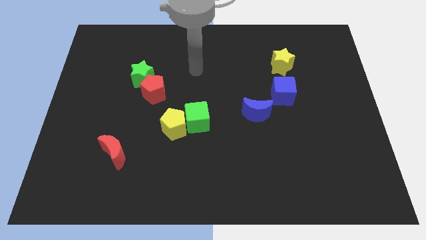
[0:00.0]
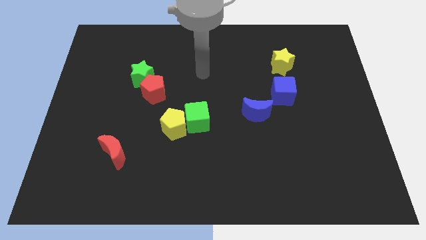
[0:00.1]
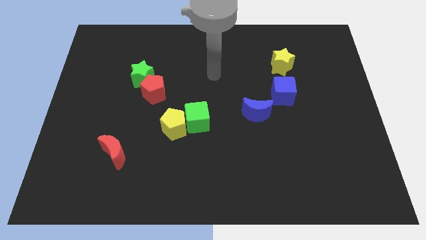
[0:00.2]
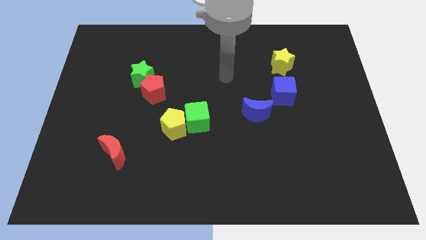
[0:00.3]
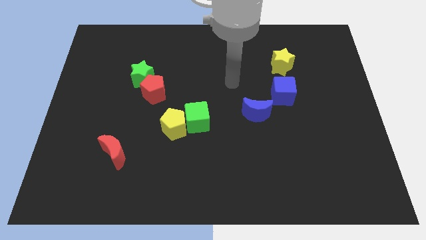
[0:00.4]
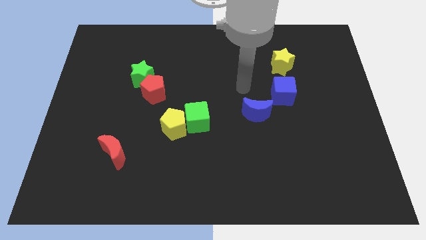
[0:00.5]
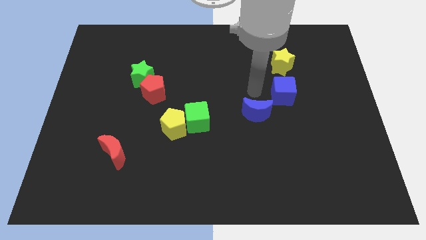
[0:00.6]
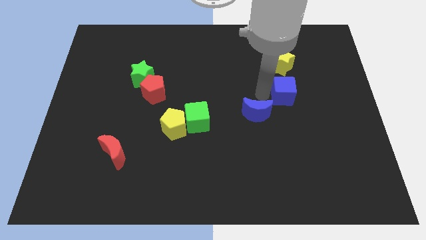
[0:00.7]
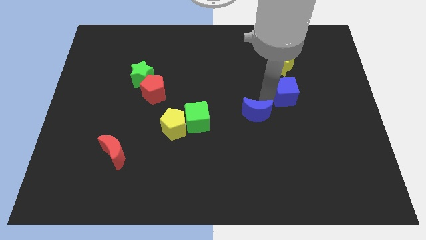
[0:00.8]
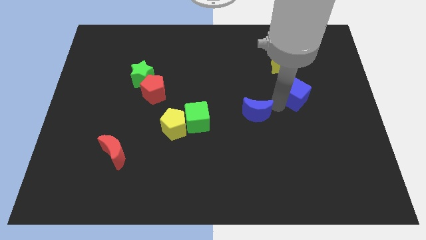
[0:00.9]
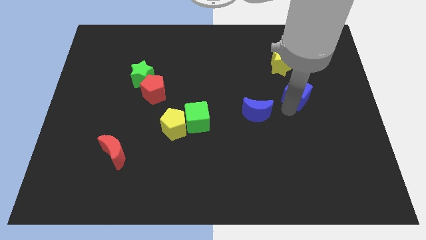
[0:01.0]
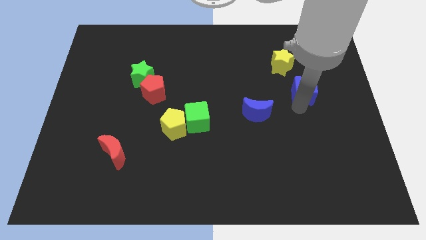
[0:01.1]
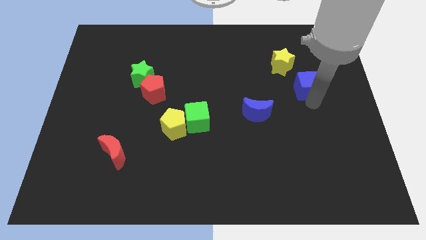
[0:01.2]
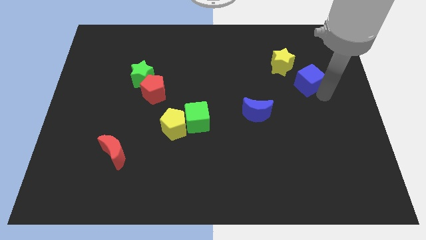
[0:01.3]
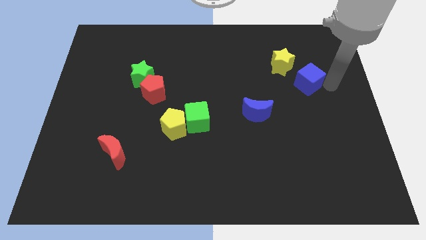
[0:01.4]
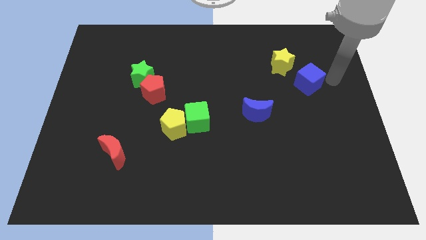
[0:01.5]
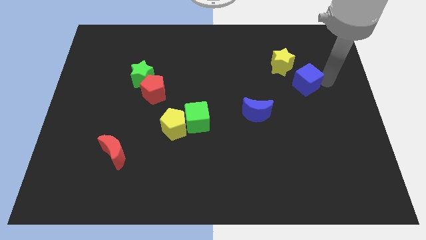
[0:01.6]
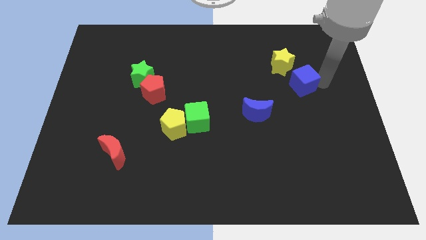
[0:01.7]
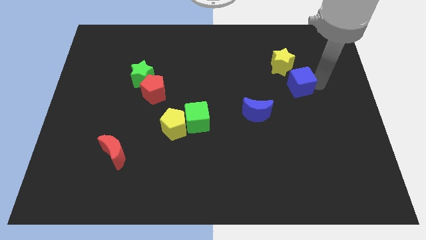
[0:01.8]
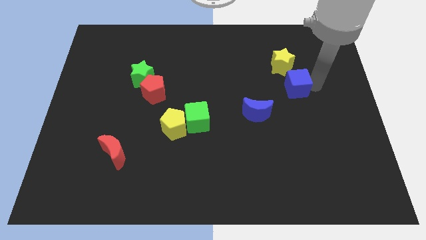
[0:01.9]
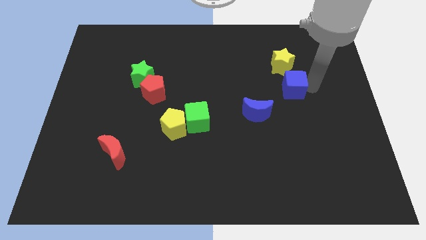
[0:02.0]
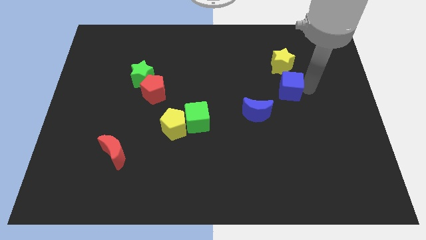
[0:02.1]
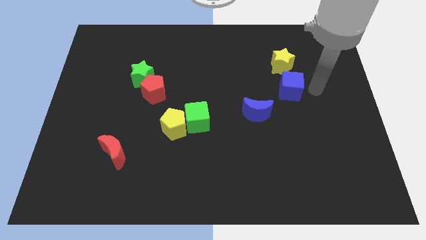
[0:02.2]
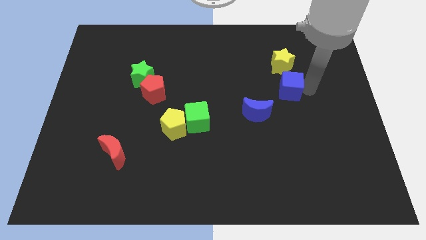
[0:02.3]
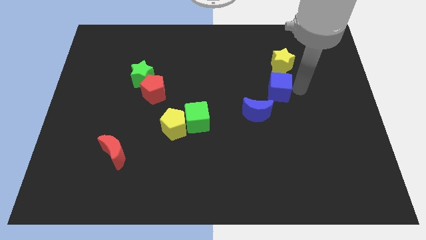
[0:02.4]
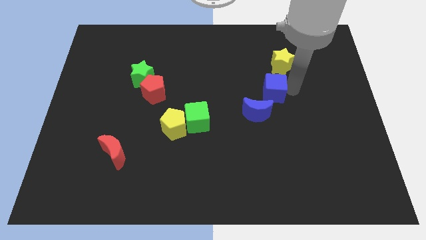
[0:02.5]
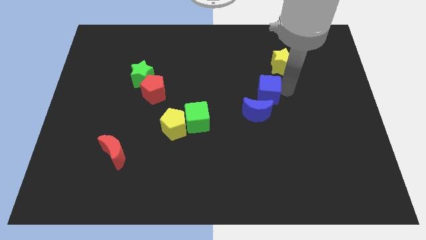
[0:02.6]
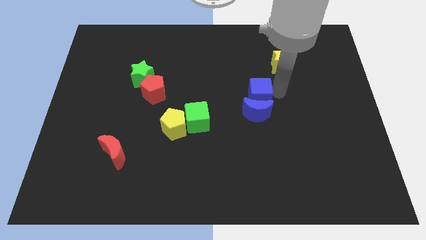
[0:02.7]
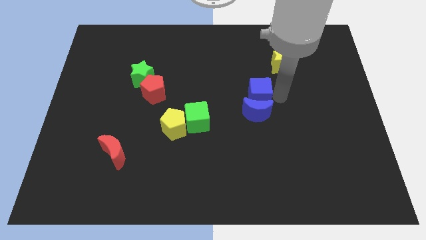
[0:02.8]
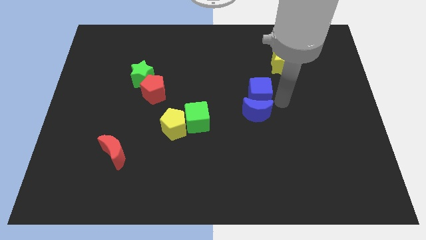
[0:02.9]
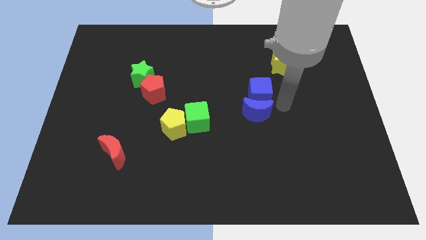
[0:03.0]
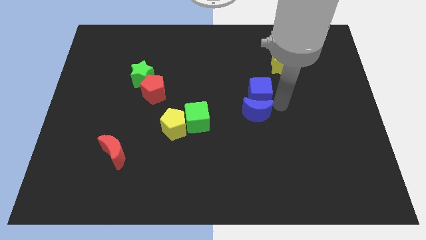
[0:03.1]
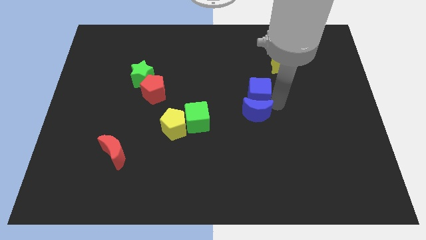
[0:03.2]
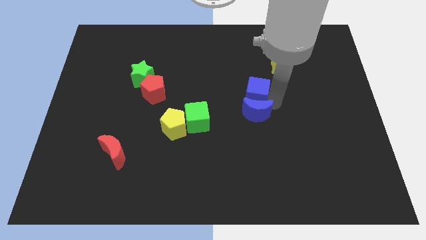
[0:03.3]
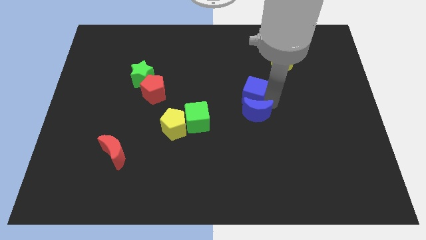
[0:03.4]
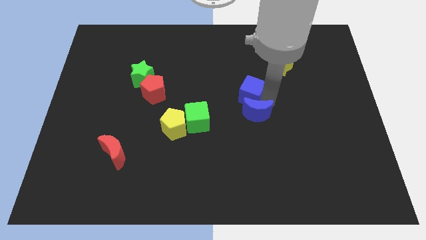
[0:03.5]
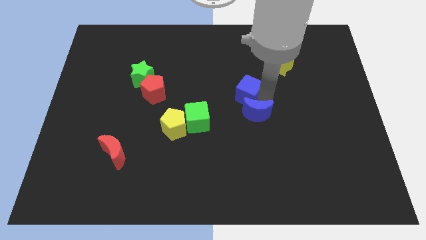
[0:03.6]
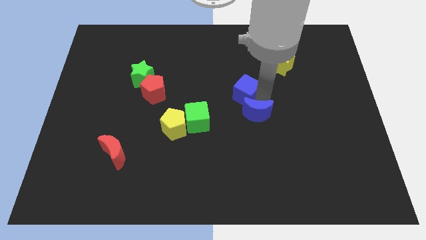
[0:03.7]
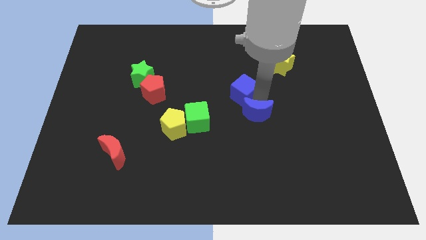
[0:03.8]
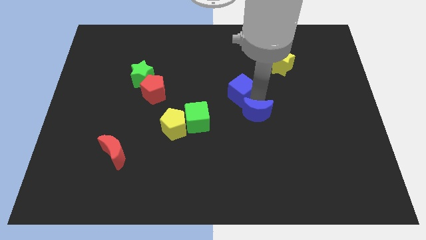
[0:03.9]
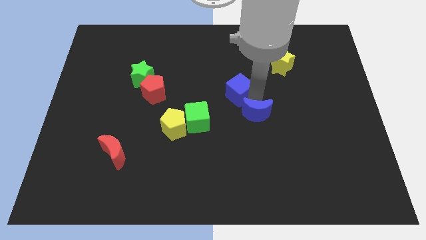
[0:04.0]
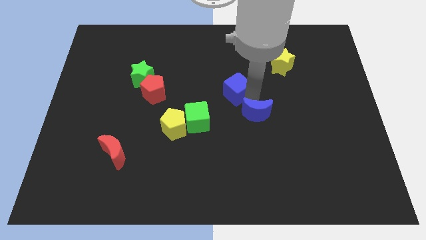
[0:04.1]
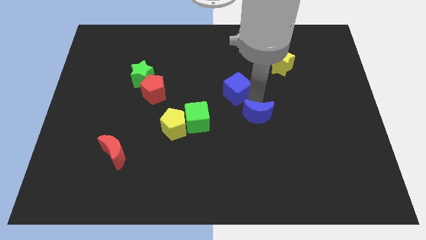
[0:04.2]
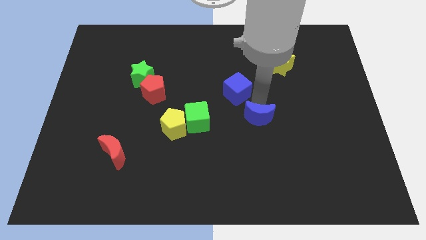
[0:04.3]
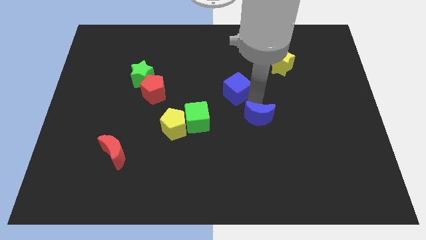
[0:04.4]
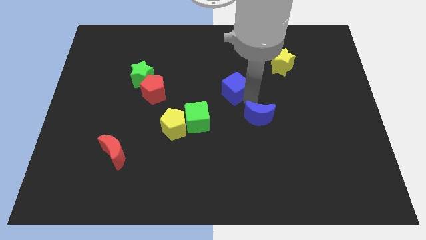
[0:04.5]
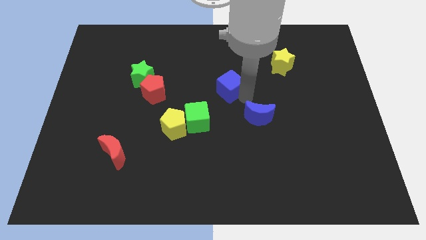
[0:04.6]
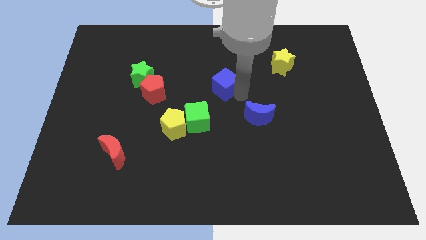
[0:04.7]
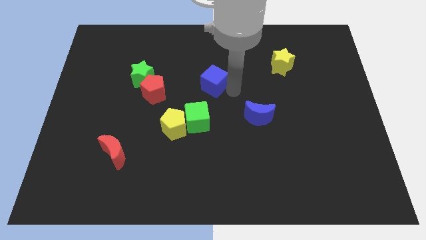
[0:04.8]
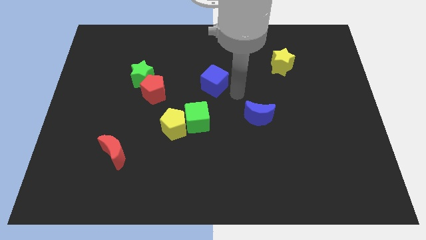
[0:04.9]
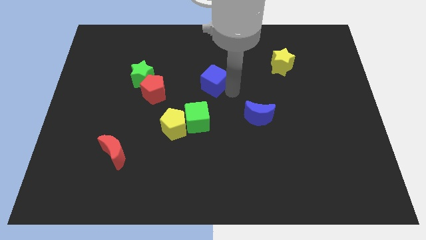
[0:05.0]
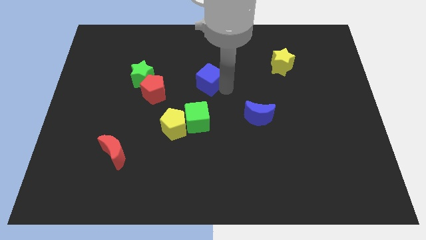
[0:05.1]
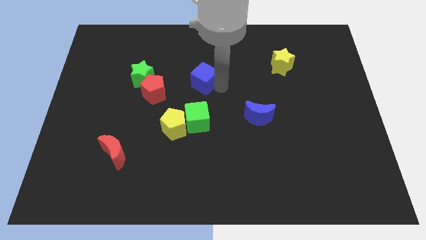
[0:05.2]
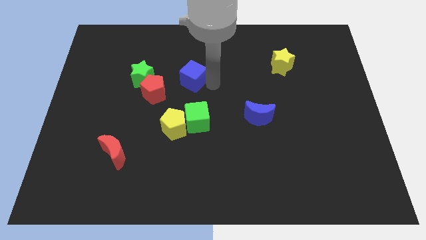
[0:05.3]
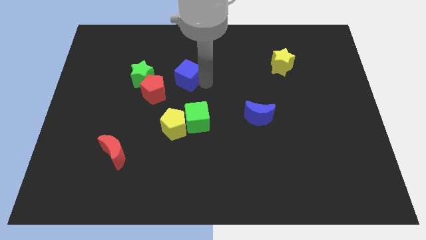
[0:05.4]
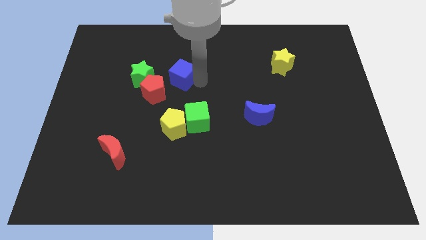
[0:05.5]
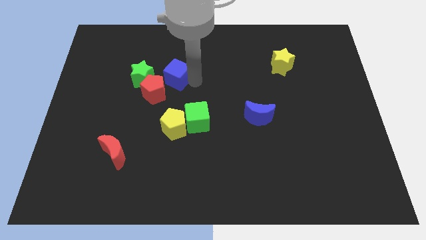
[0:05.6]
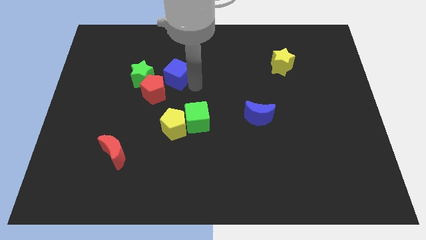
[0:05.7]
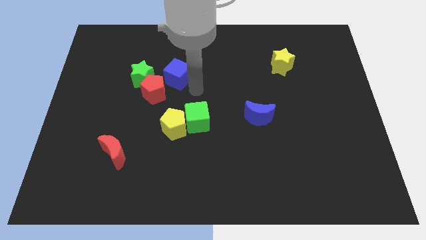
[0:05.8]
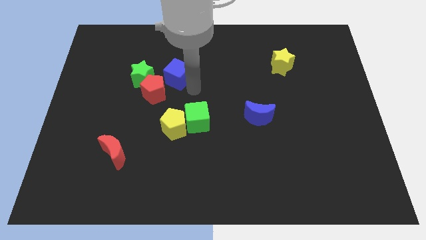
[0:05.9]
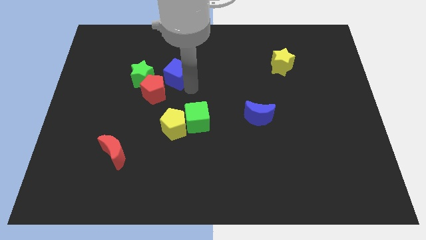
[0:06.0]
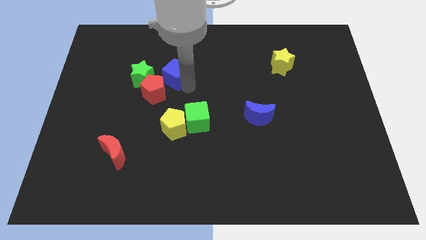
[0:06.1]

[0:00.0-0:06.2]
push the blue cube to the top of the red pentagon
